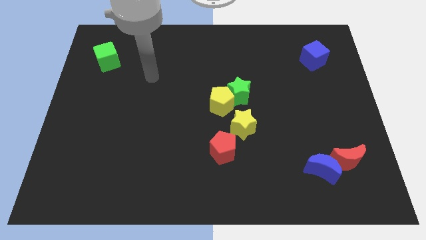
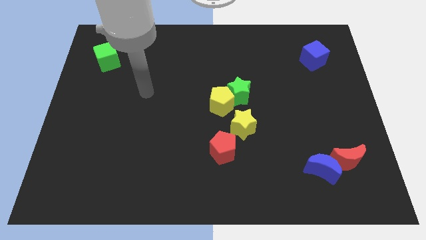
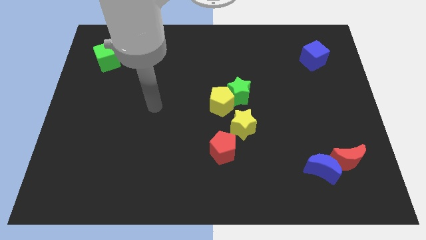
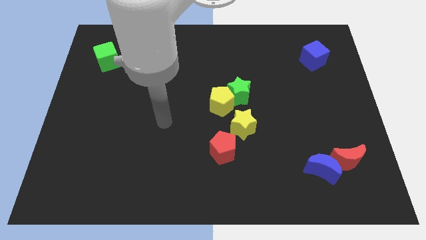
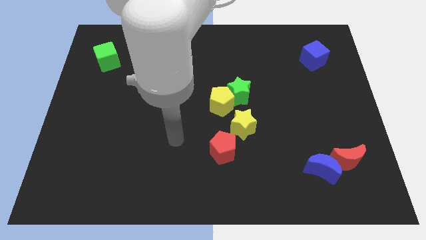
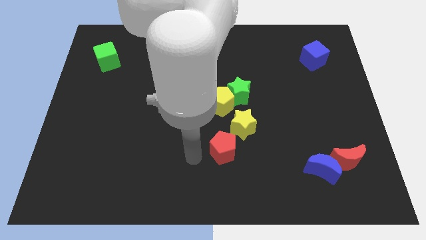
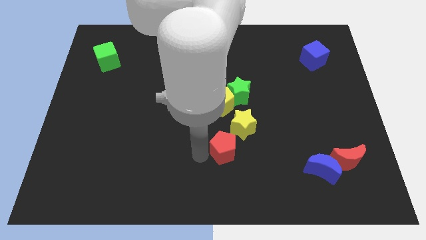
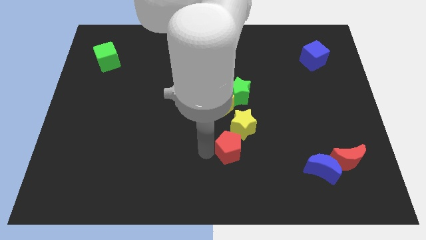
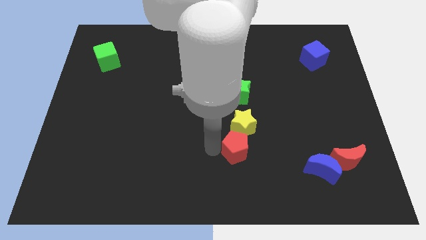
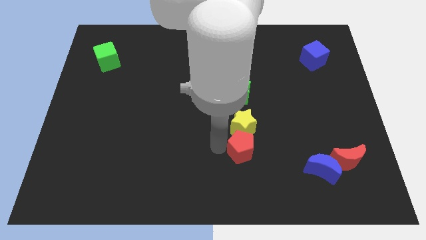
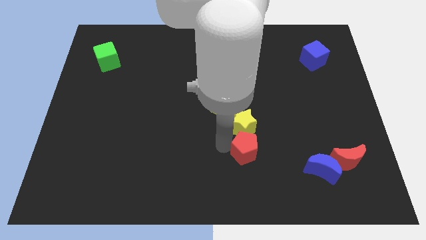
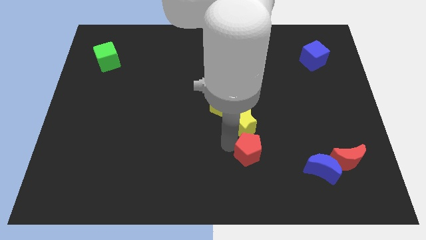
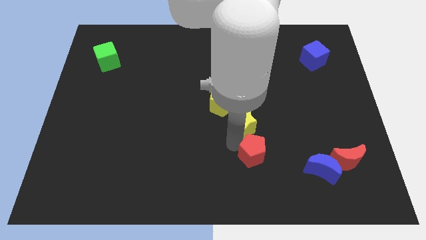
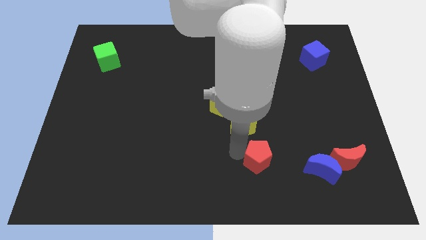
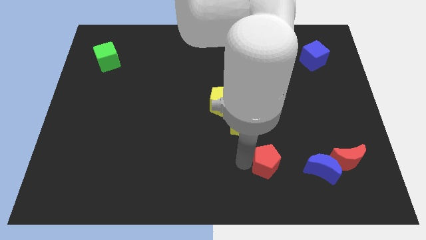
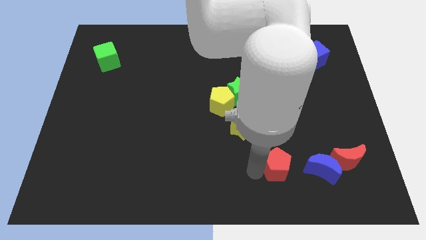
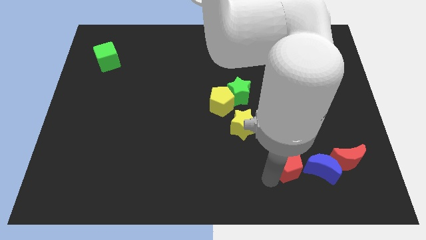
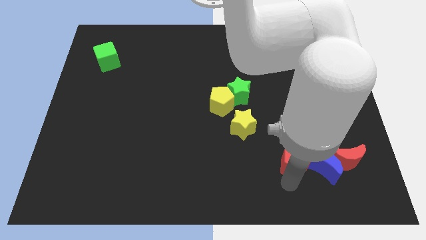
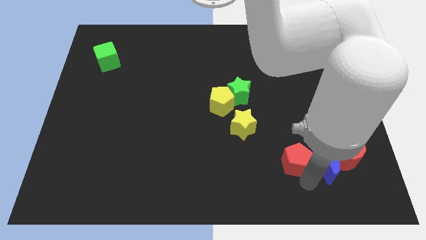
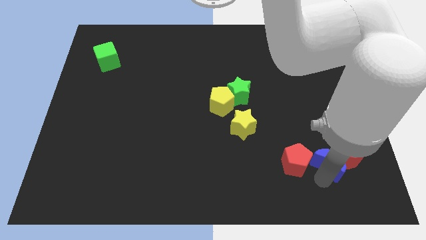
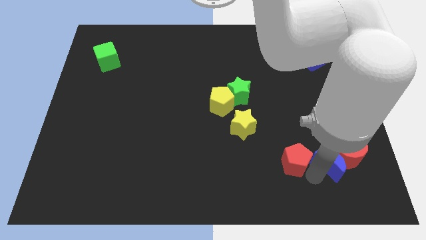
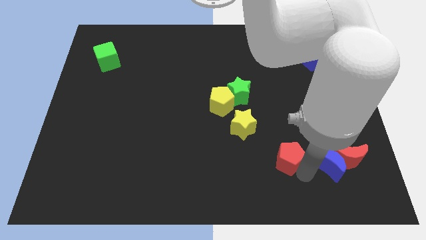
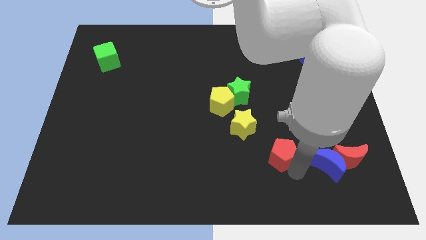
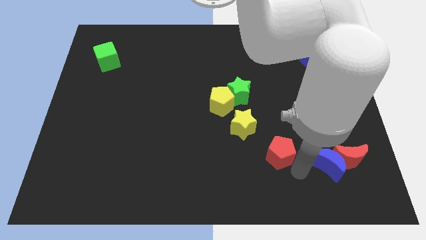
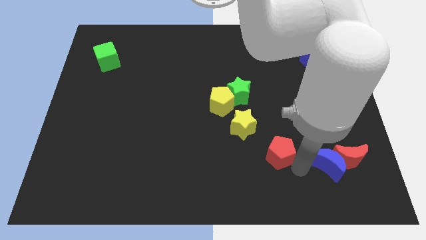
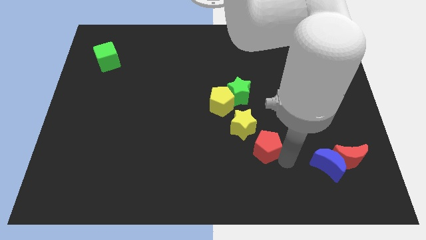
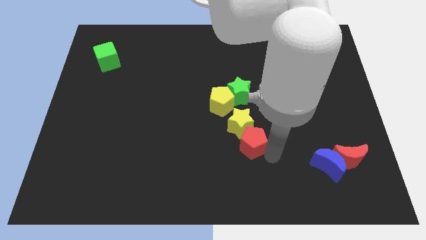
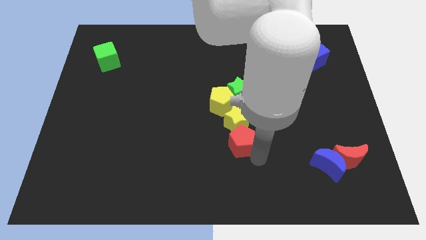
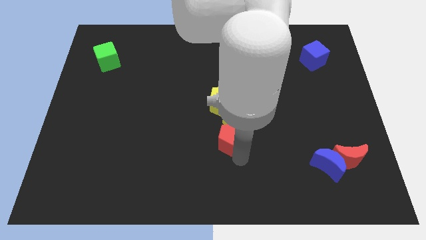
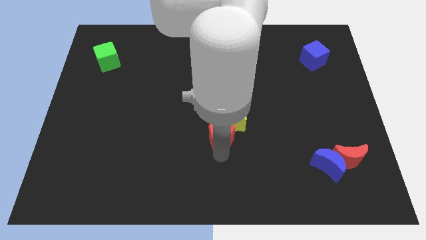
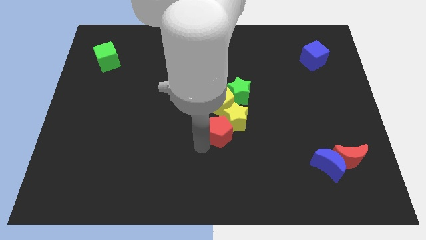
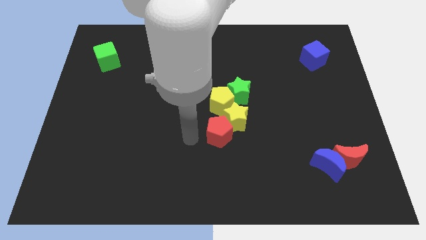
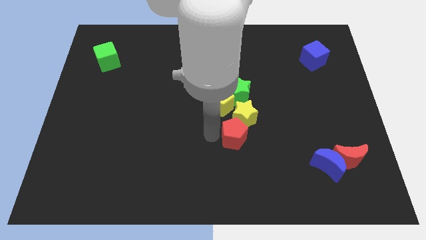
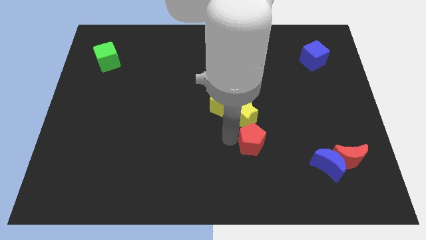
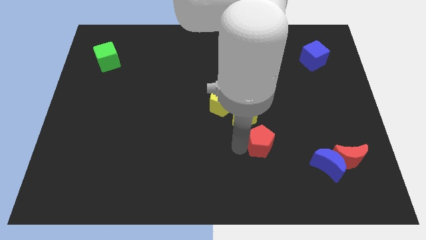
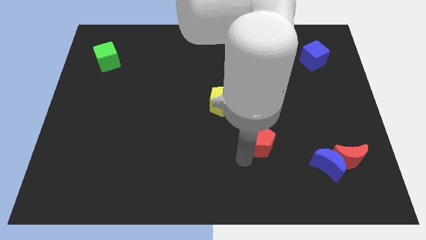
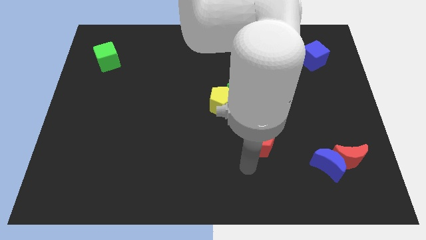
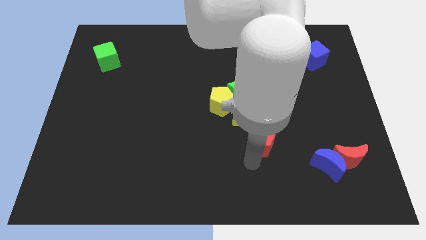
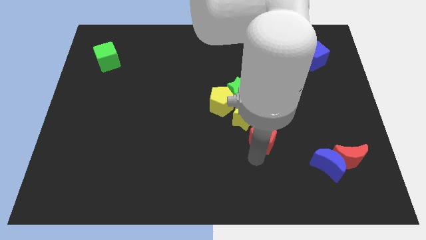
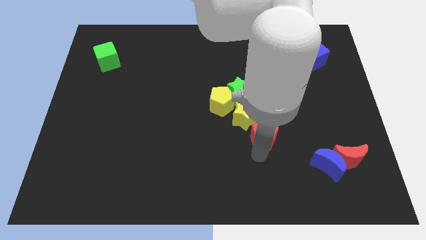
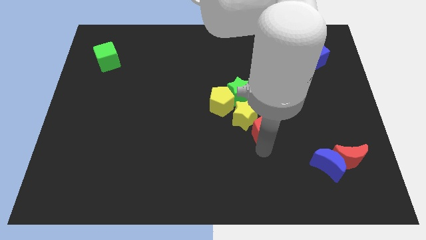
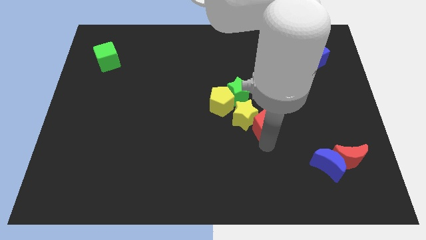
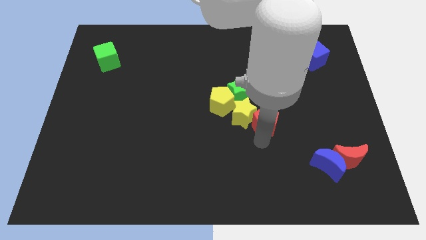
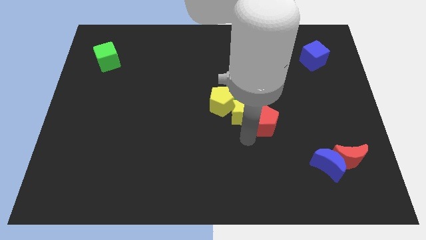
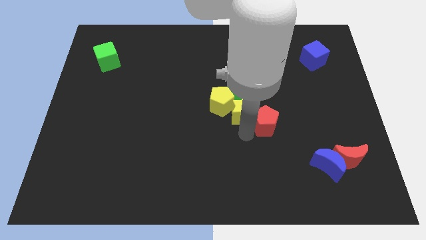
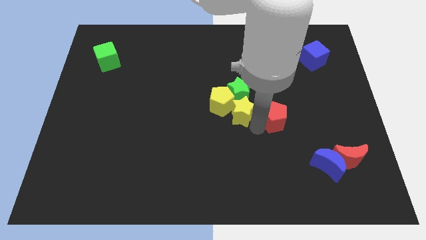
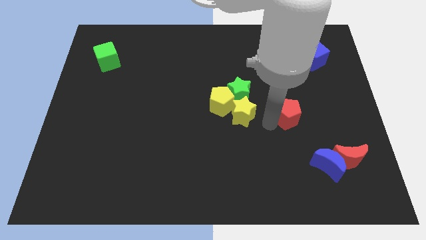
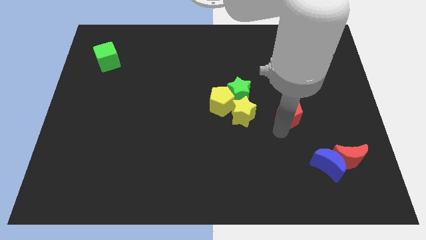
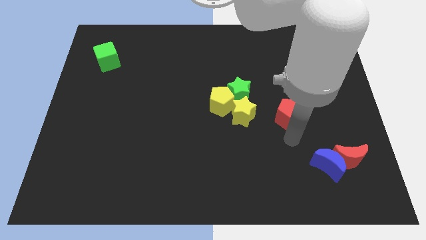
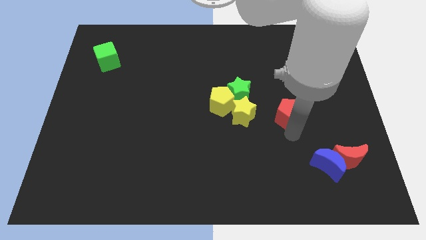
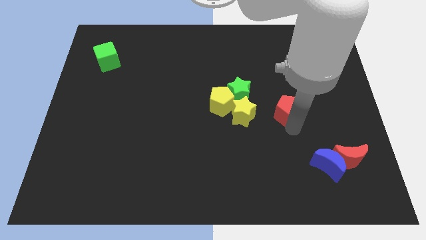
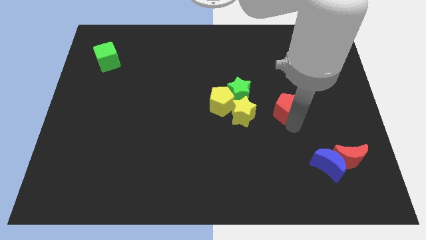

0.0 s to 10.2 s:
move the red pentagon just right of the green star

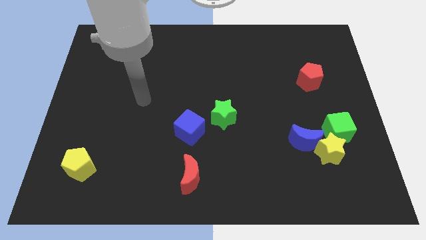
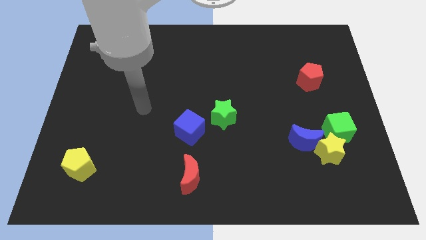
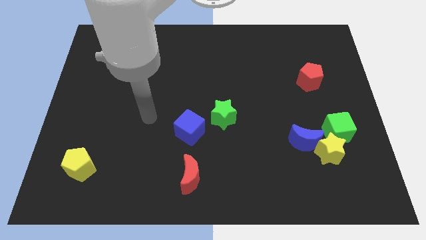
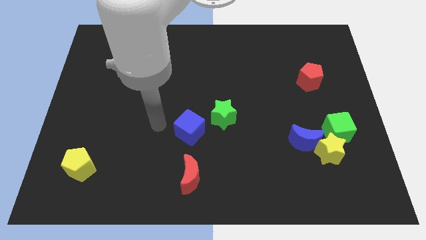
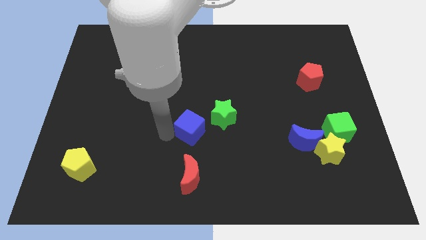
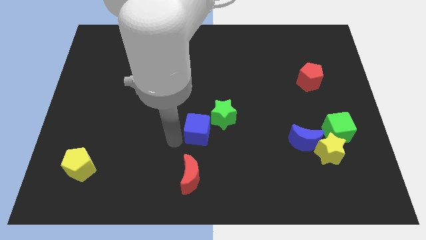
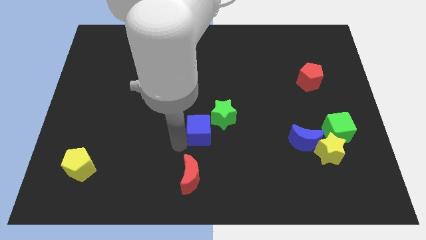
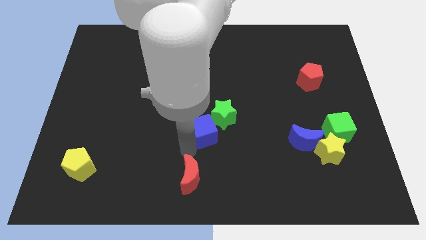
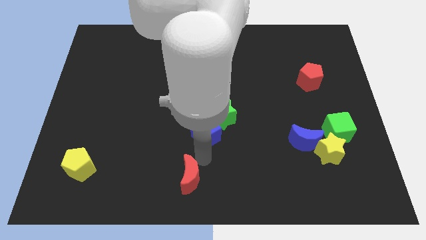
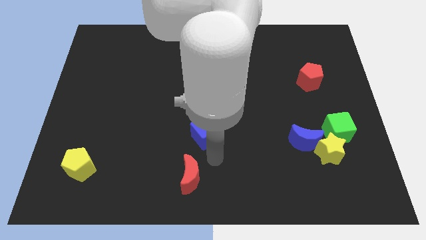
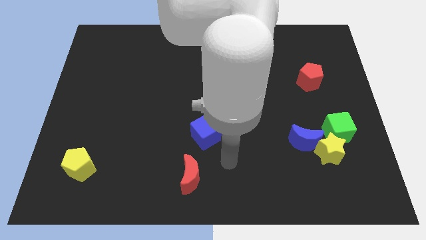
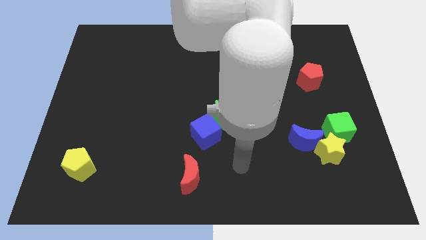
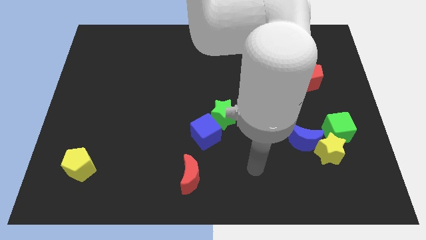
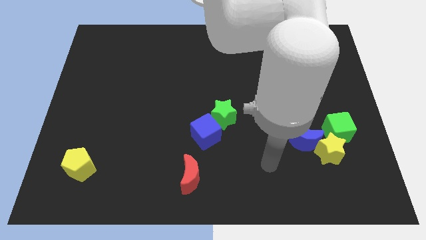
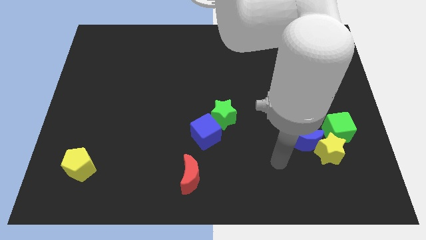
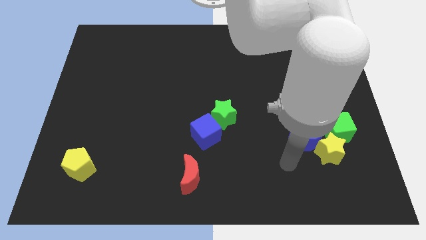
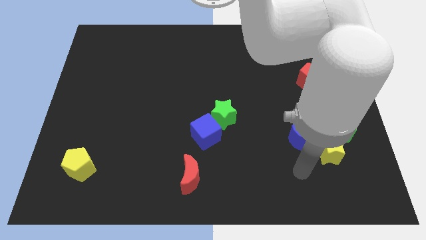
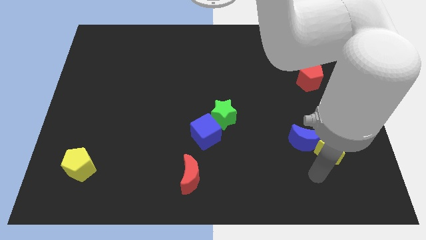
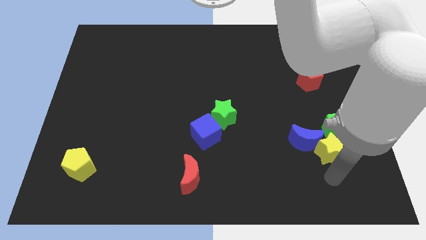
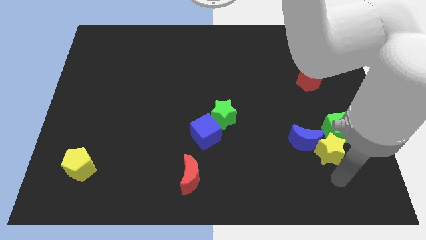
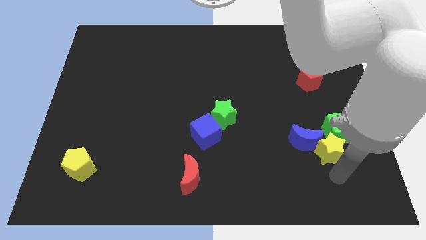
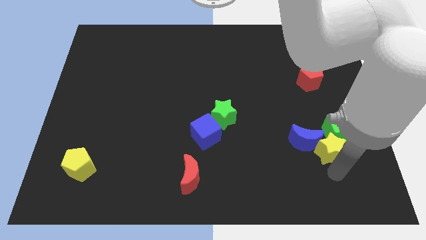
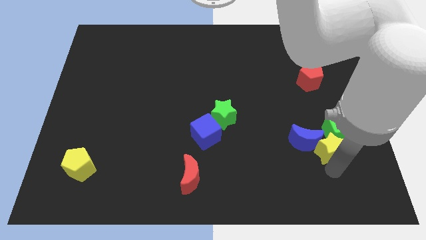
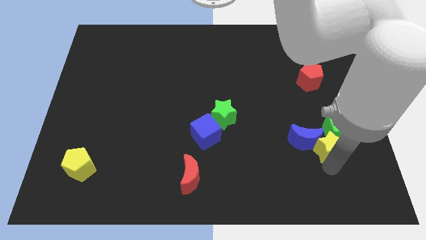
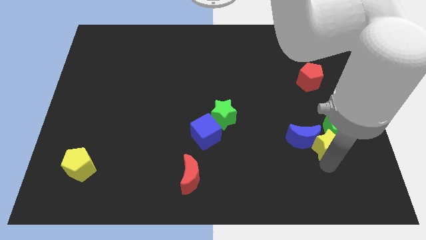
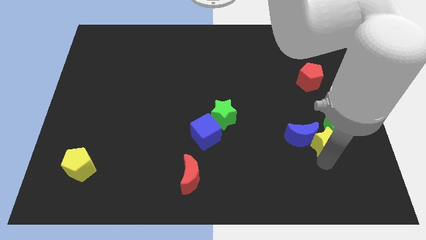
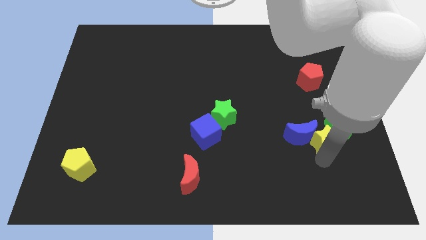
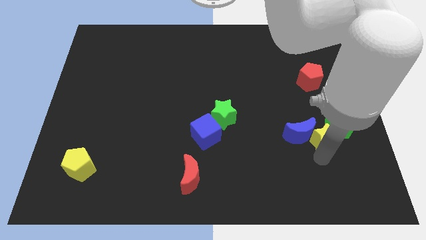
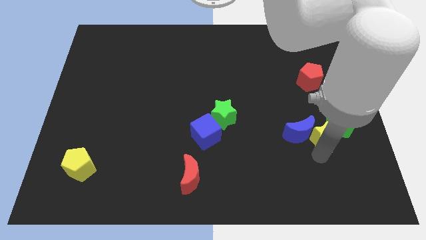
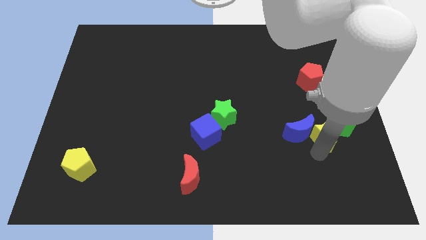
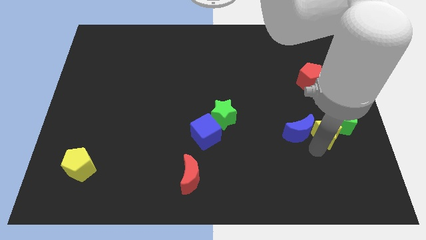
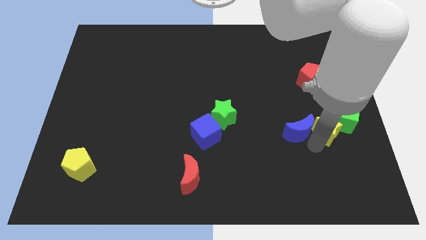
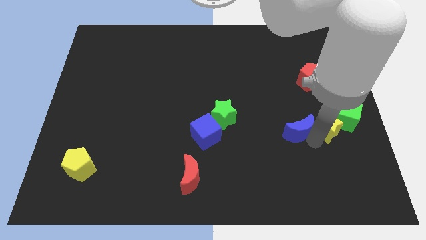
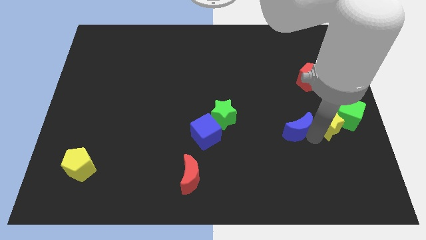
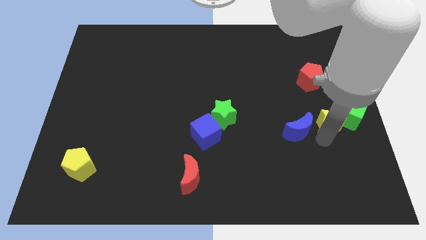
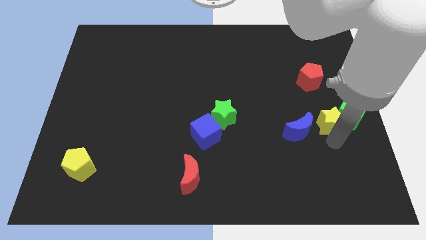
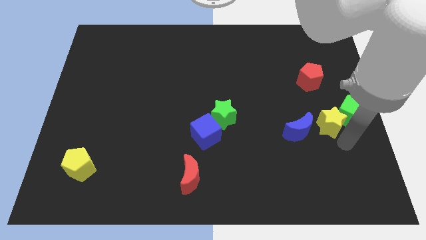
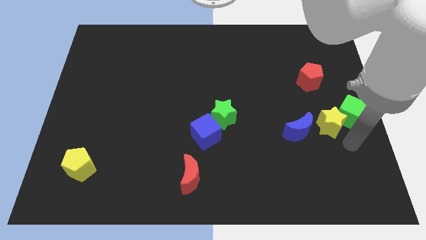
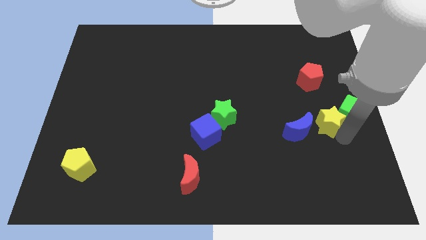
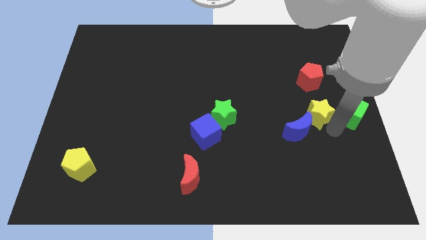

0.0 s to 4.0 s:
slide the yellow star to the top of the blue moon
